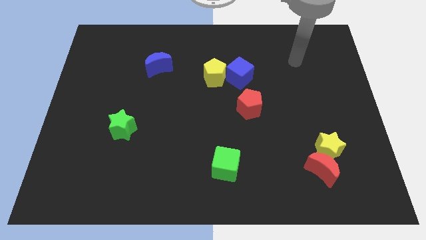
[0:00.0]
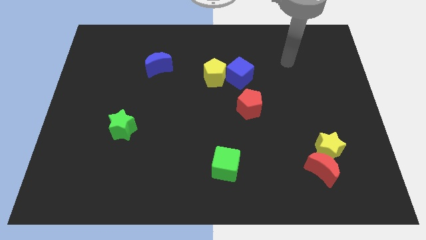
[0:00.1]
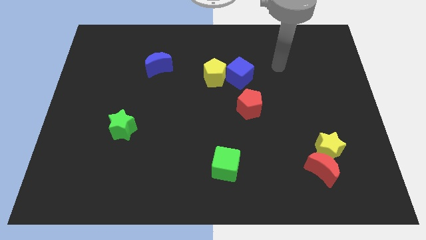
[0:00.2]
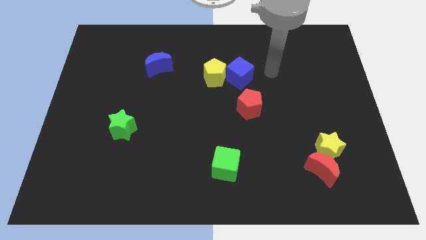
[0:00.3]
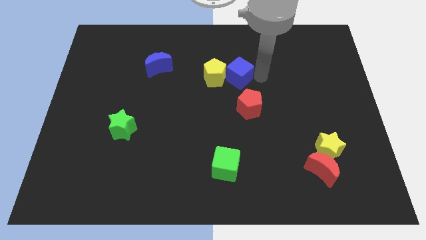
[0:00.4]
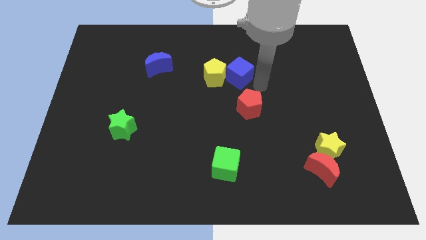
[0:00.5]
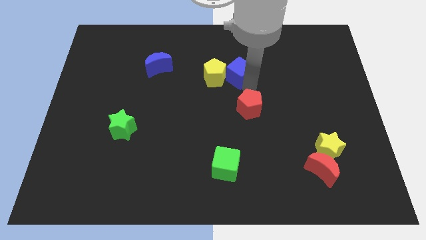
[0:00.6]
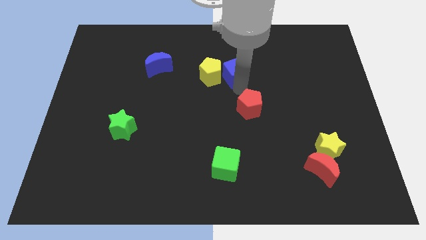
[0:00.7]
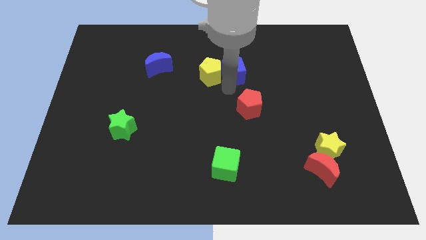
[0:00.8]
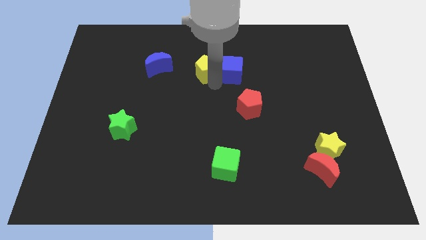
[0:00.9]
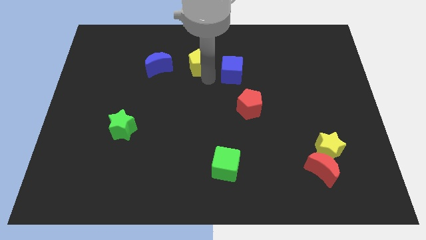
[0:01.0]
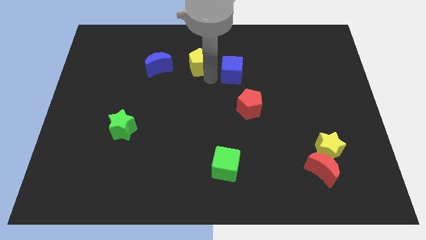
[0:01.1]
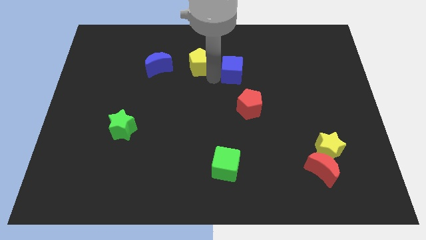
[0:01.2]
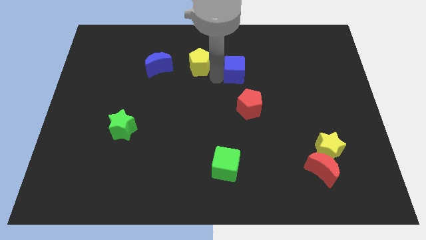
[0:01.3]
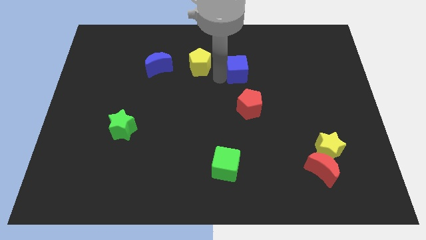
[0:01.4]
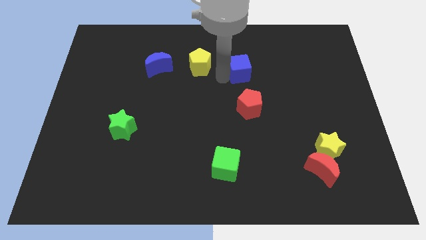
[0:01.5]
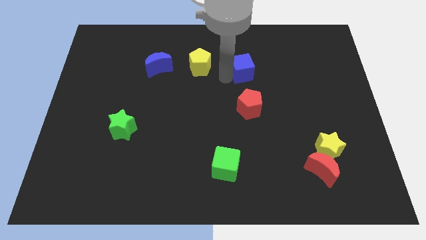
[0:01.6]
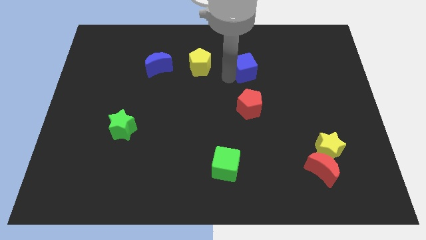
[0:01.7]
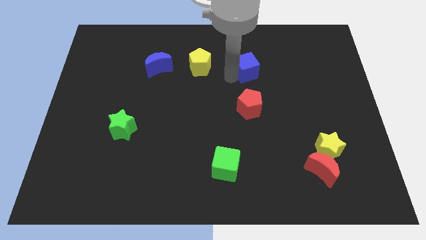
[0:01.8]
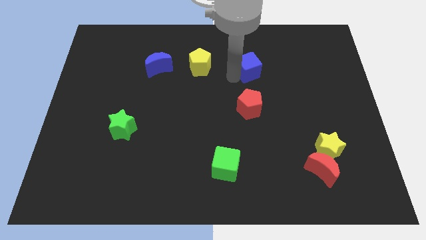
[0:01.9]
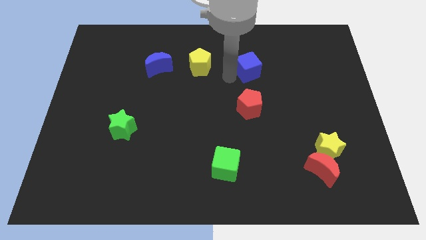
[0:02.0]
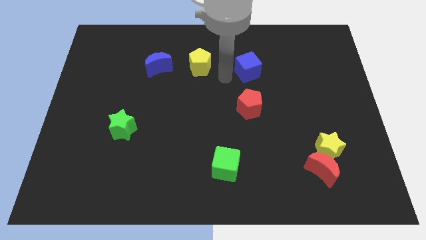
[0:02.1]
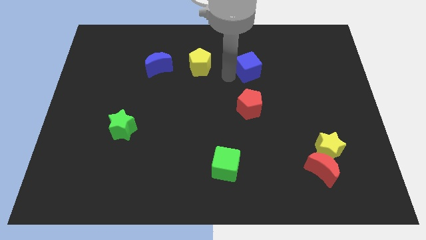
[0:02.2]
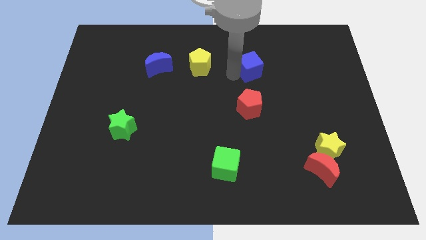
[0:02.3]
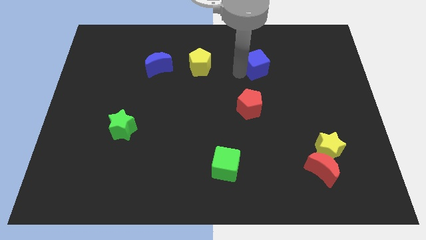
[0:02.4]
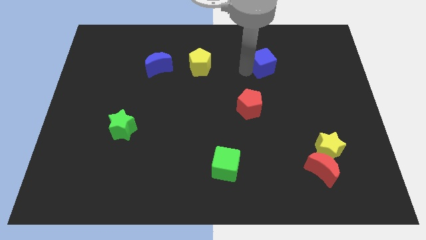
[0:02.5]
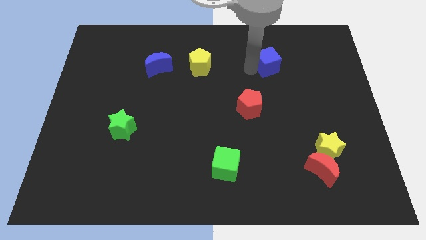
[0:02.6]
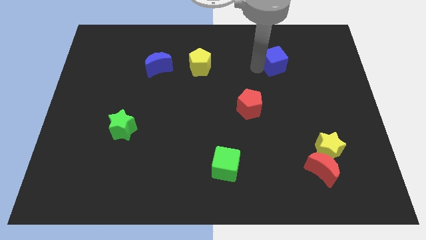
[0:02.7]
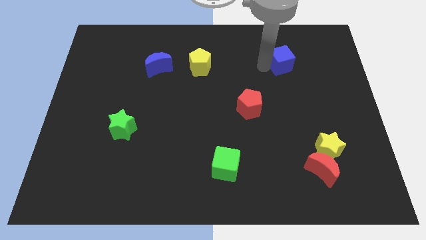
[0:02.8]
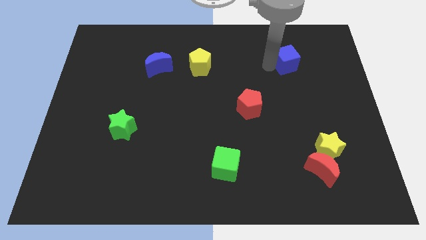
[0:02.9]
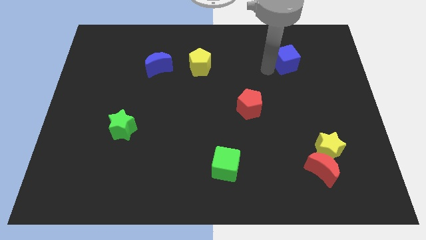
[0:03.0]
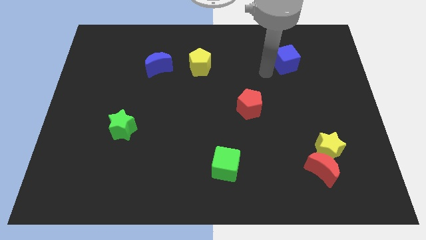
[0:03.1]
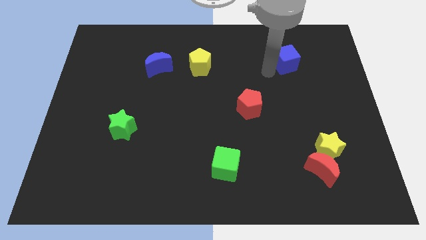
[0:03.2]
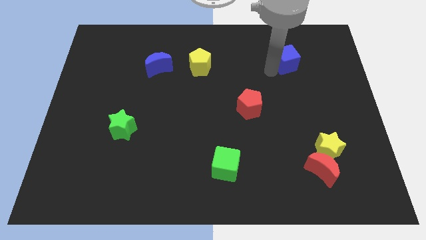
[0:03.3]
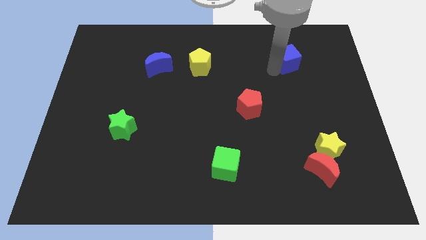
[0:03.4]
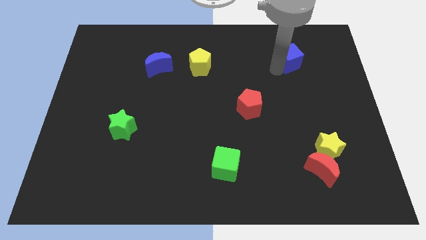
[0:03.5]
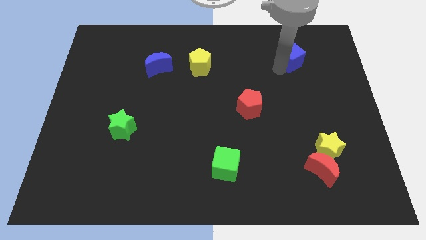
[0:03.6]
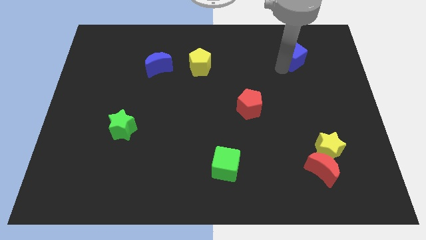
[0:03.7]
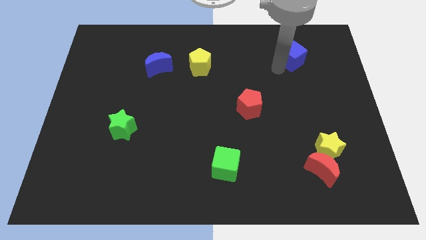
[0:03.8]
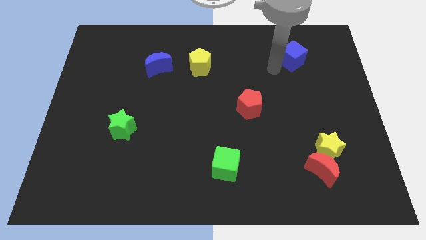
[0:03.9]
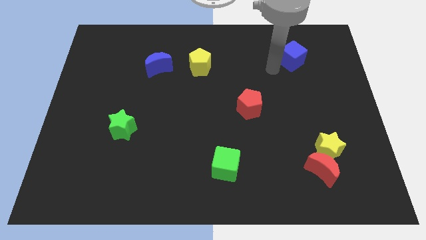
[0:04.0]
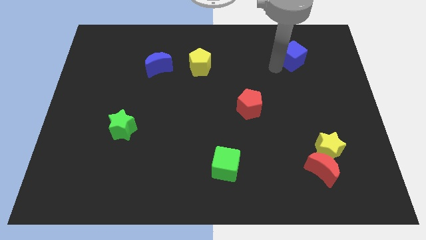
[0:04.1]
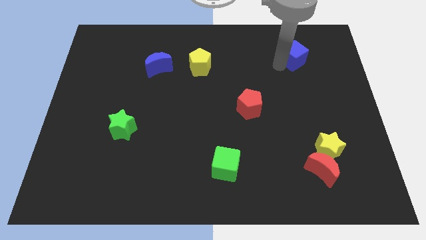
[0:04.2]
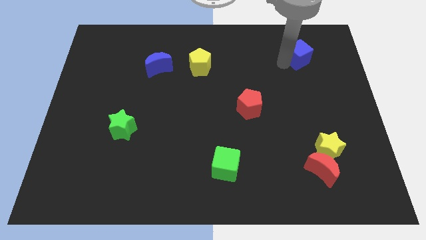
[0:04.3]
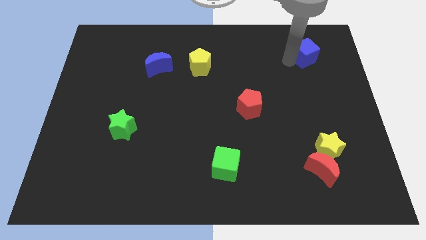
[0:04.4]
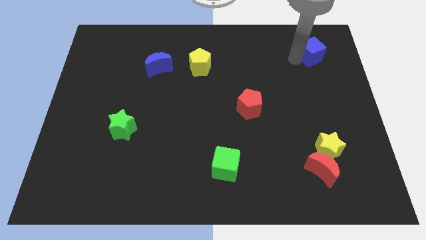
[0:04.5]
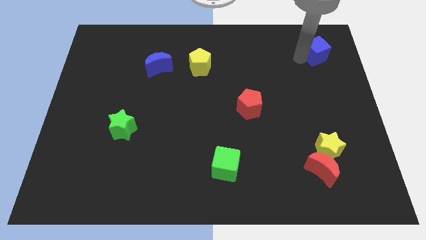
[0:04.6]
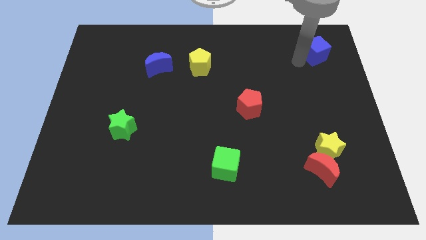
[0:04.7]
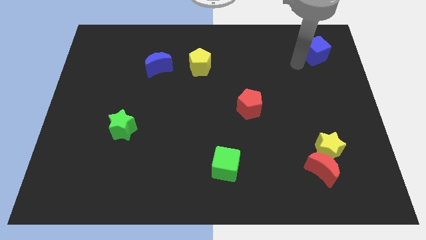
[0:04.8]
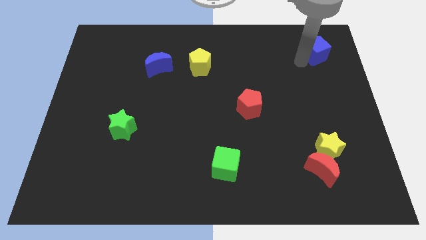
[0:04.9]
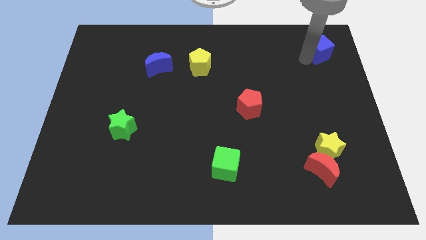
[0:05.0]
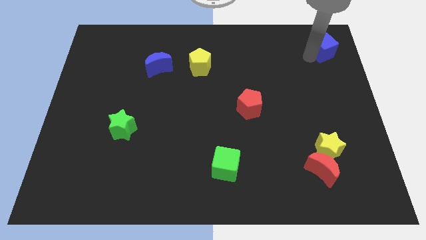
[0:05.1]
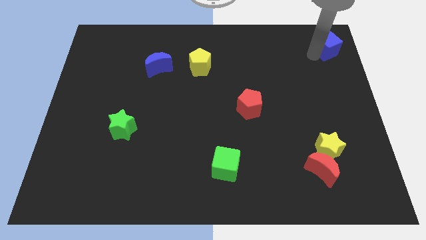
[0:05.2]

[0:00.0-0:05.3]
push the blue cube to the top right corner

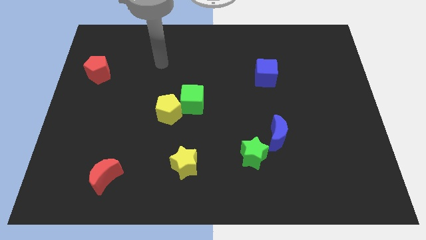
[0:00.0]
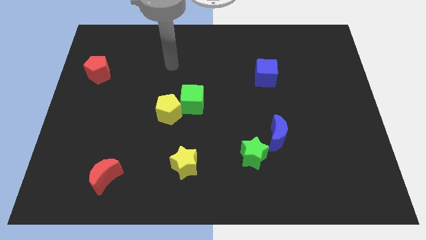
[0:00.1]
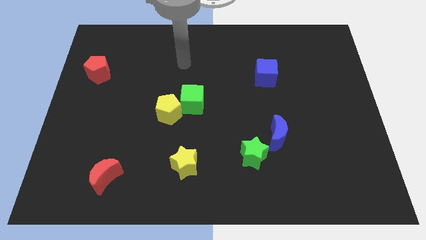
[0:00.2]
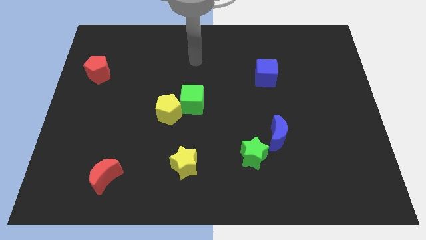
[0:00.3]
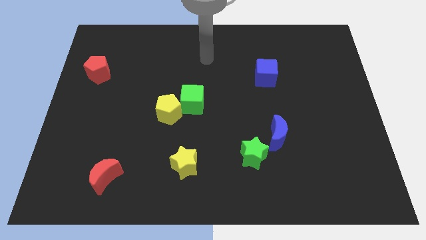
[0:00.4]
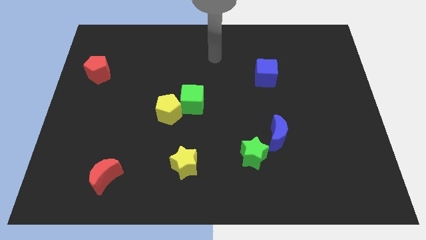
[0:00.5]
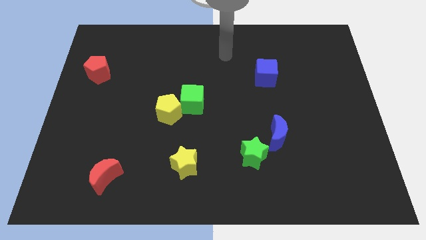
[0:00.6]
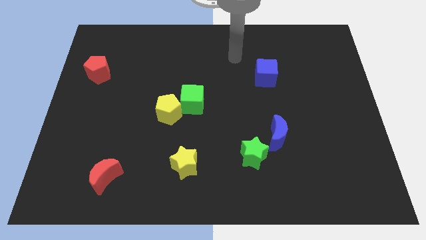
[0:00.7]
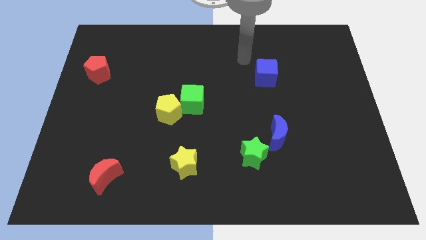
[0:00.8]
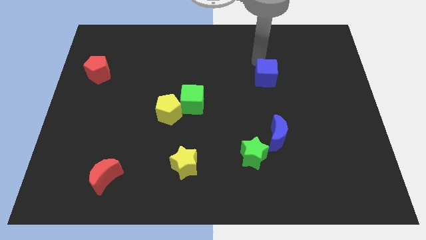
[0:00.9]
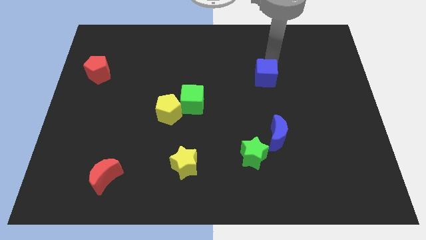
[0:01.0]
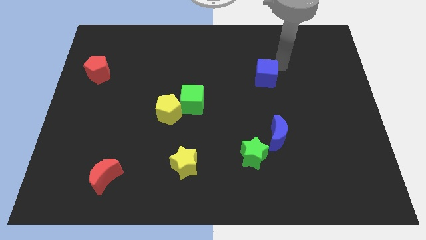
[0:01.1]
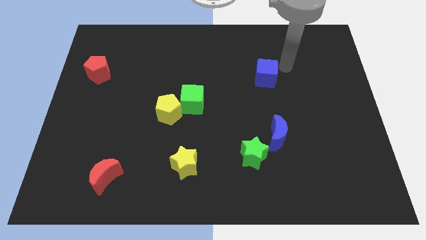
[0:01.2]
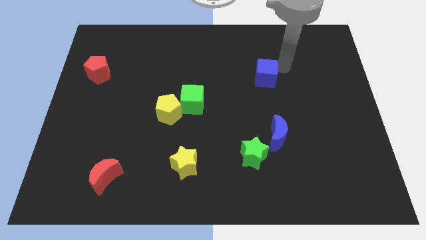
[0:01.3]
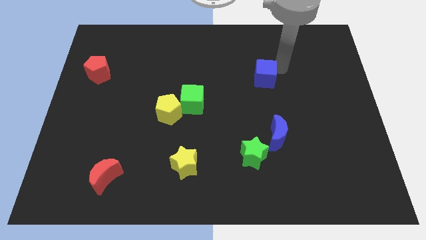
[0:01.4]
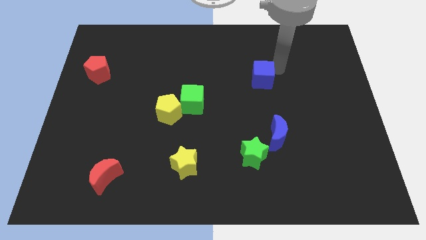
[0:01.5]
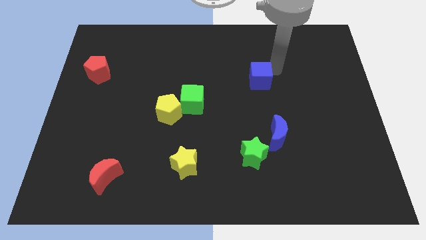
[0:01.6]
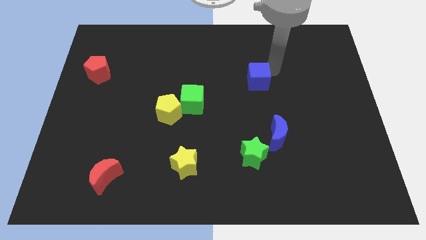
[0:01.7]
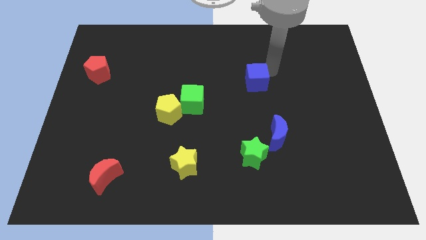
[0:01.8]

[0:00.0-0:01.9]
slide the blue cube to the center of the board

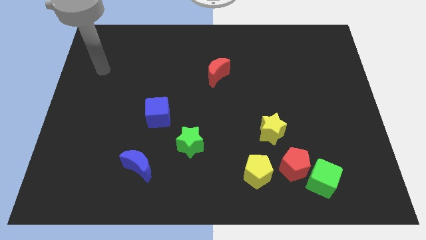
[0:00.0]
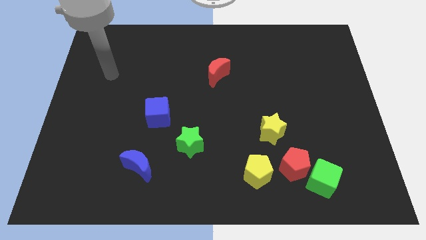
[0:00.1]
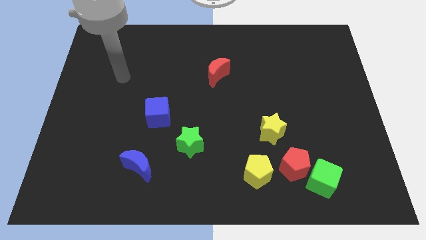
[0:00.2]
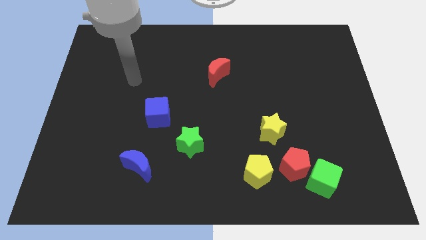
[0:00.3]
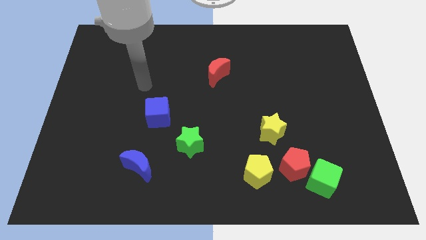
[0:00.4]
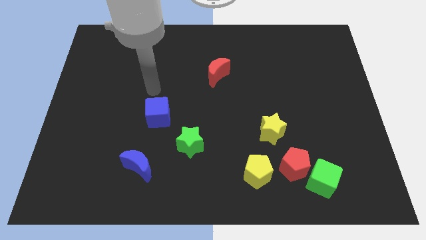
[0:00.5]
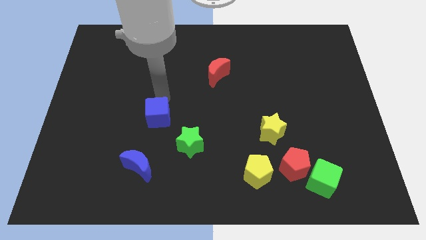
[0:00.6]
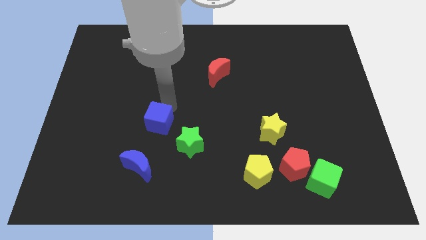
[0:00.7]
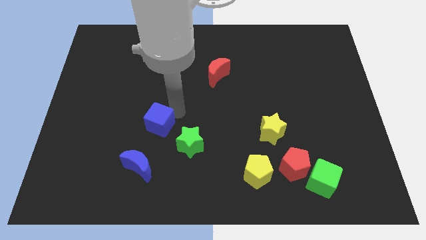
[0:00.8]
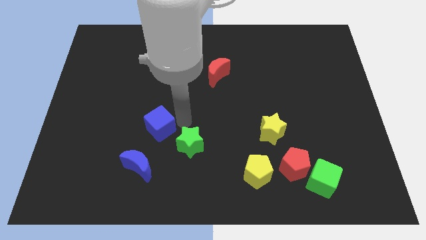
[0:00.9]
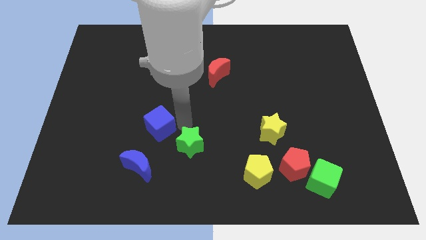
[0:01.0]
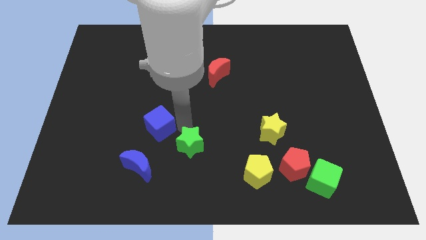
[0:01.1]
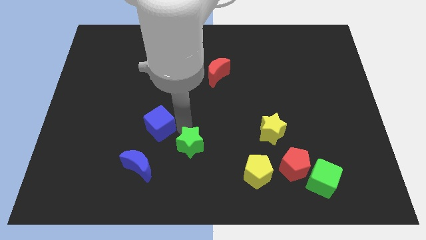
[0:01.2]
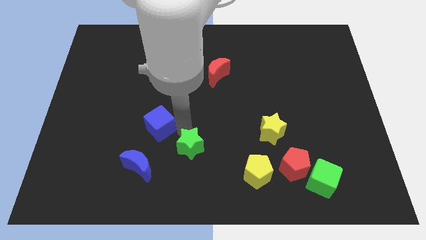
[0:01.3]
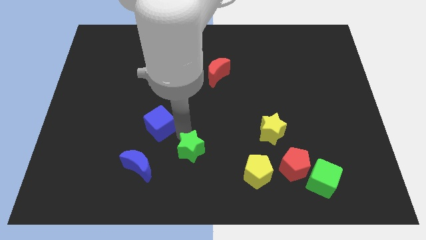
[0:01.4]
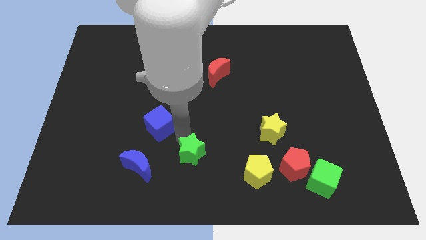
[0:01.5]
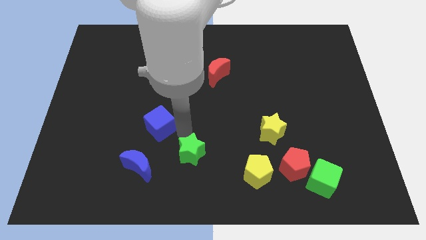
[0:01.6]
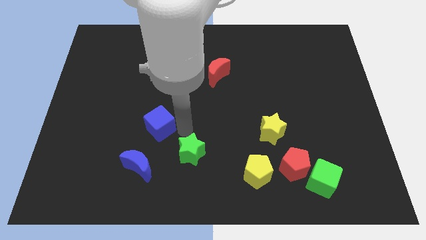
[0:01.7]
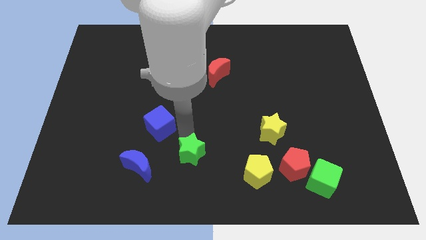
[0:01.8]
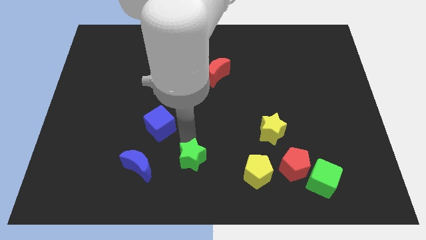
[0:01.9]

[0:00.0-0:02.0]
push the green star to the bottom
